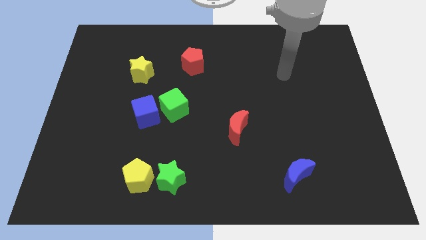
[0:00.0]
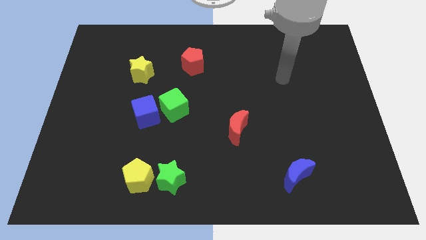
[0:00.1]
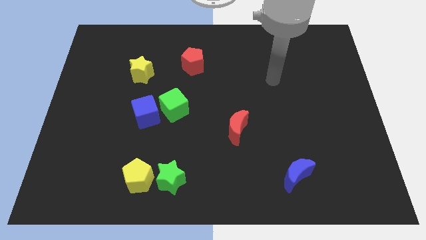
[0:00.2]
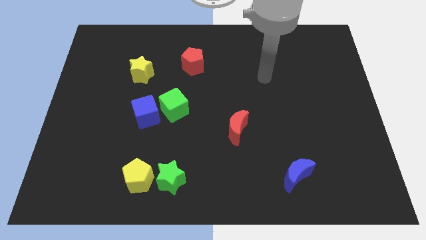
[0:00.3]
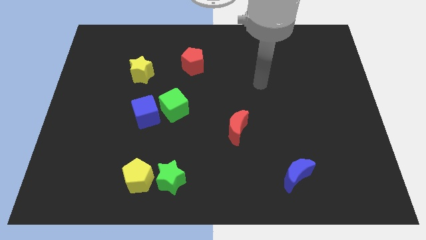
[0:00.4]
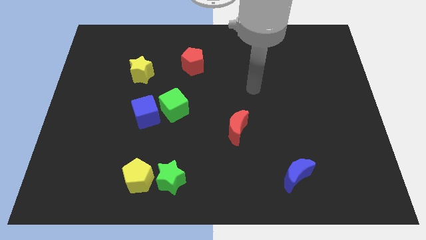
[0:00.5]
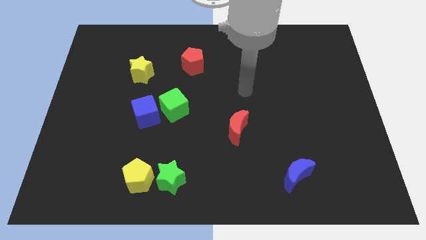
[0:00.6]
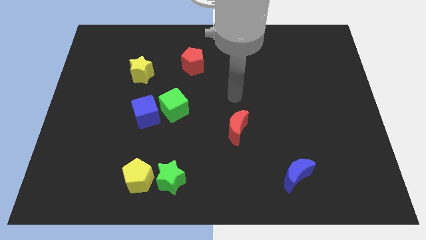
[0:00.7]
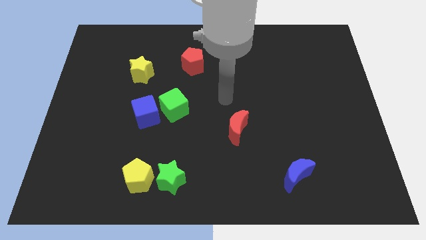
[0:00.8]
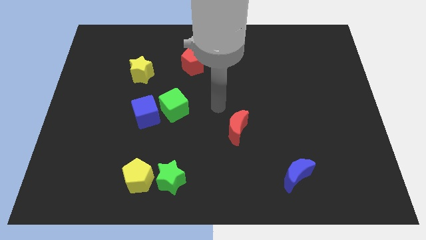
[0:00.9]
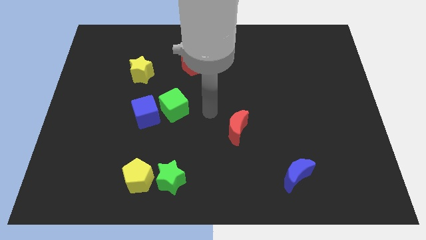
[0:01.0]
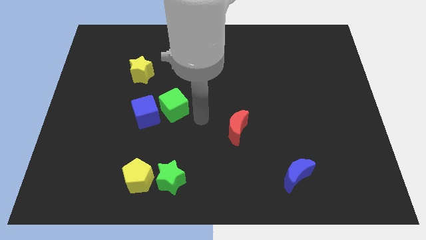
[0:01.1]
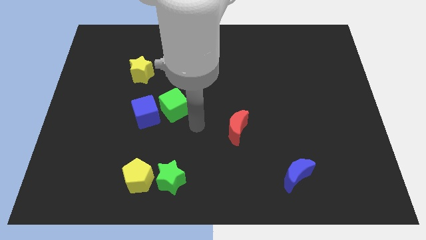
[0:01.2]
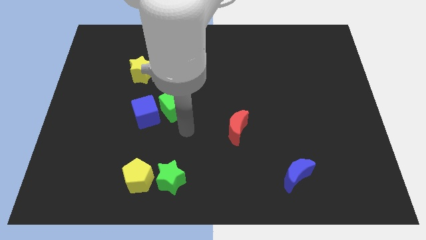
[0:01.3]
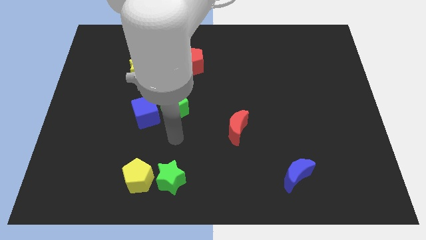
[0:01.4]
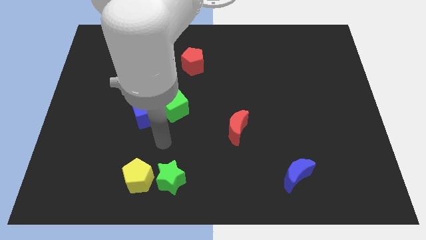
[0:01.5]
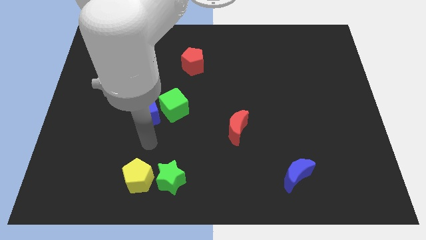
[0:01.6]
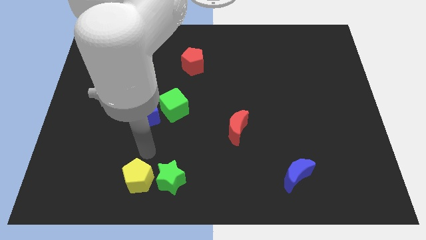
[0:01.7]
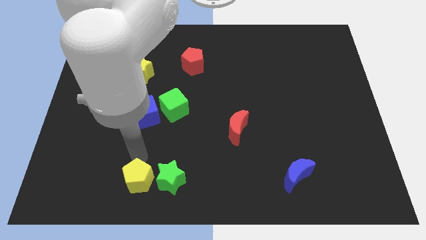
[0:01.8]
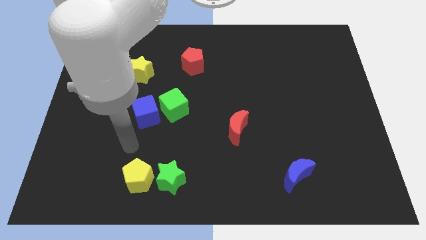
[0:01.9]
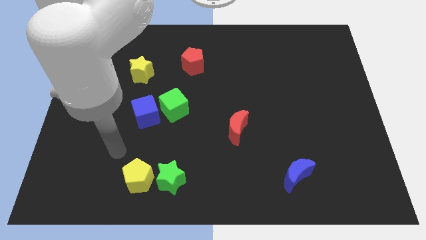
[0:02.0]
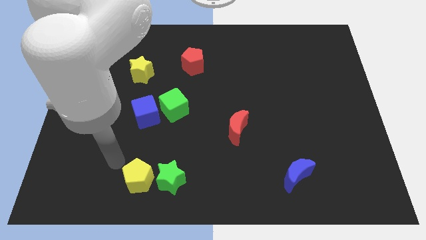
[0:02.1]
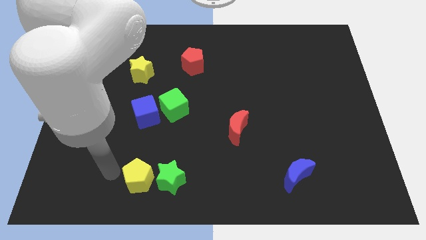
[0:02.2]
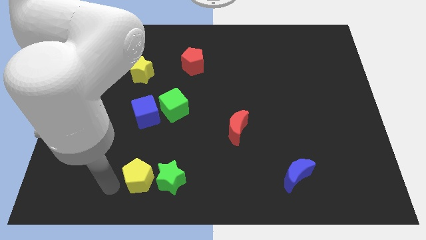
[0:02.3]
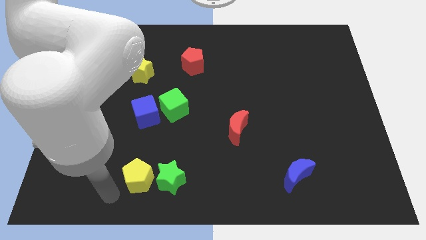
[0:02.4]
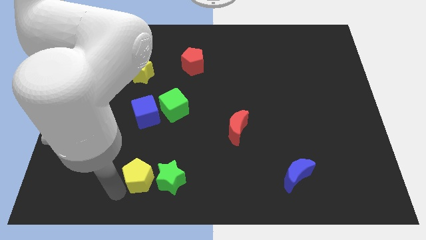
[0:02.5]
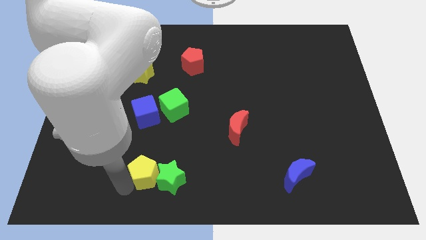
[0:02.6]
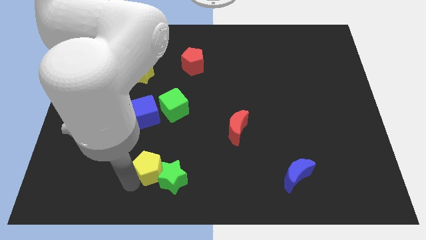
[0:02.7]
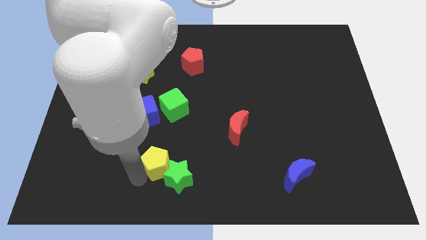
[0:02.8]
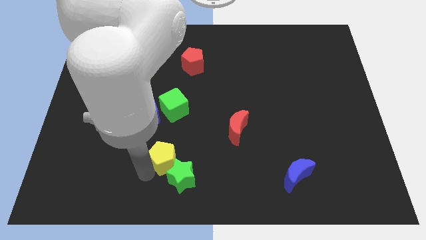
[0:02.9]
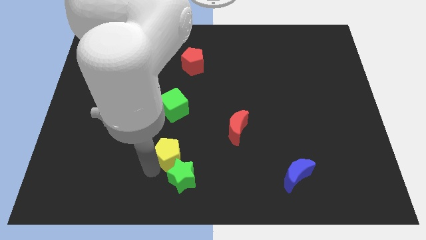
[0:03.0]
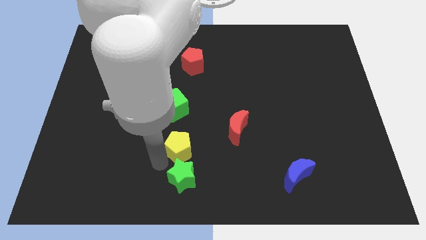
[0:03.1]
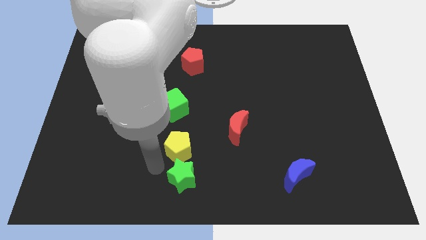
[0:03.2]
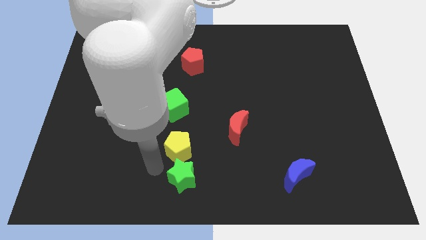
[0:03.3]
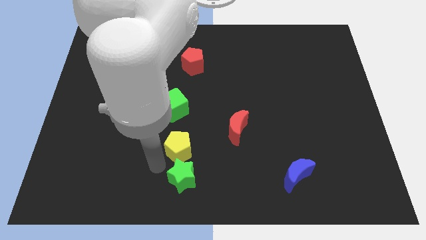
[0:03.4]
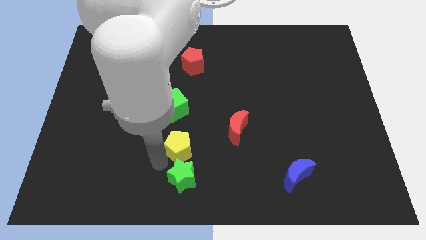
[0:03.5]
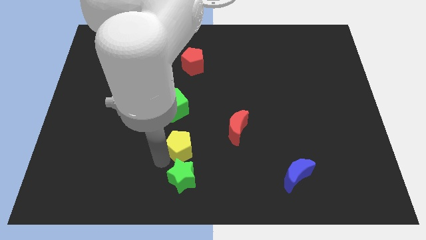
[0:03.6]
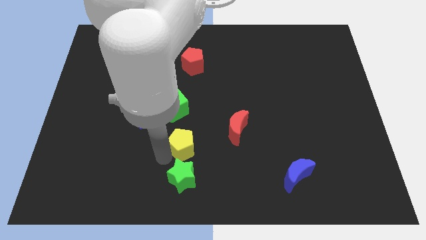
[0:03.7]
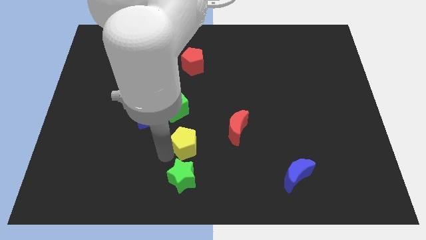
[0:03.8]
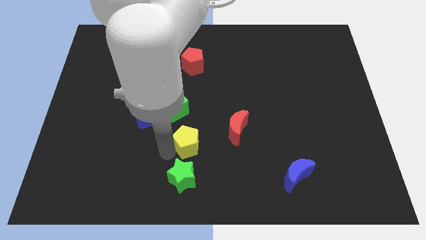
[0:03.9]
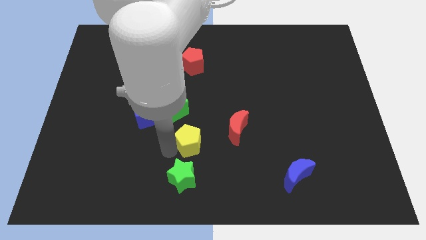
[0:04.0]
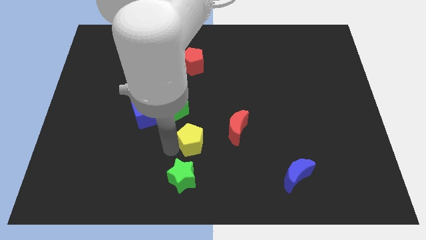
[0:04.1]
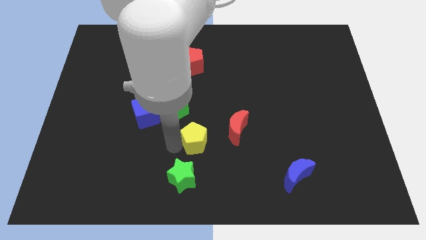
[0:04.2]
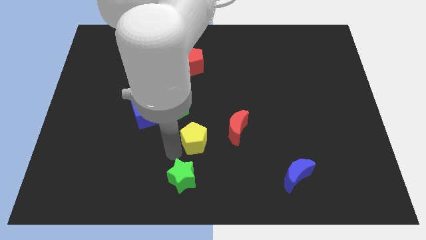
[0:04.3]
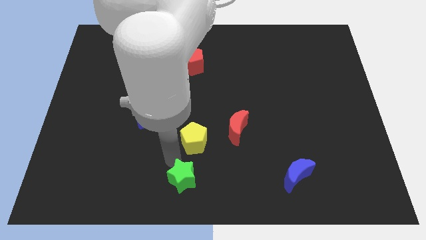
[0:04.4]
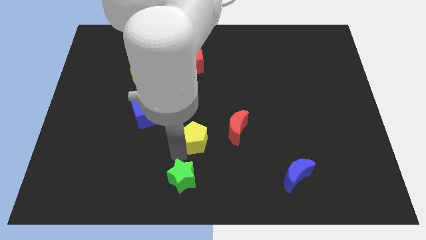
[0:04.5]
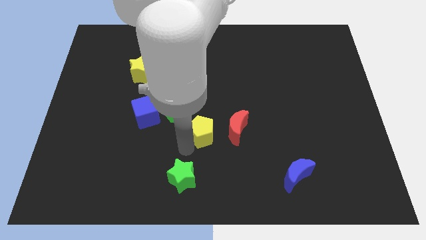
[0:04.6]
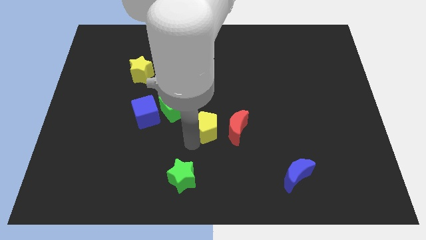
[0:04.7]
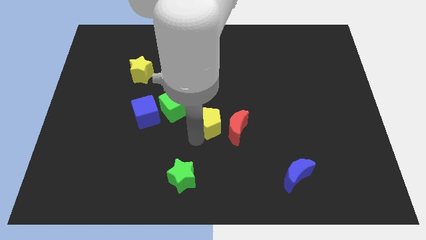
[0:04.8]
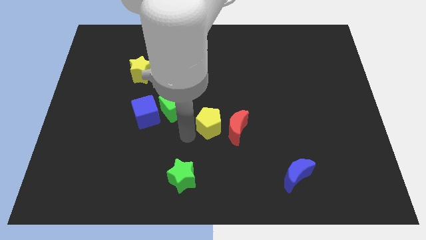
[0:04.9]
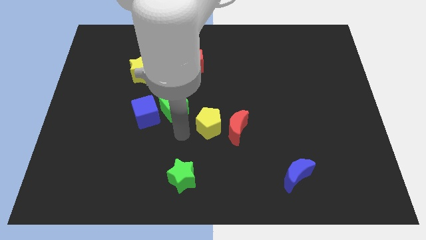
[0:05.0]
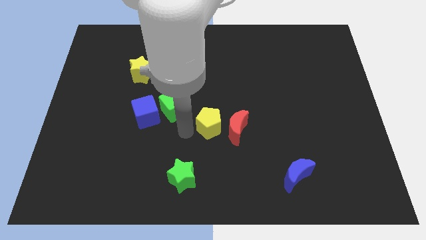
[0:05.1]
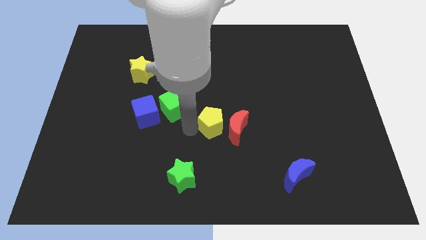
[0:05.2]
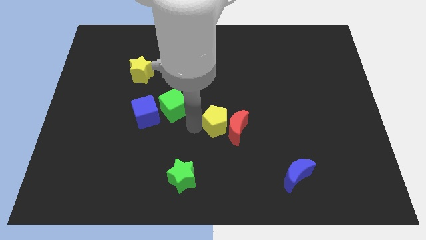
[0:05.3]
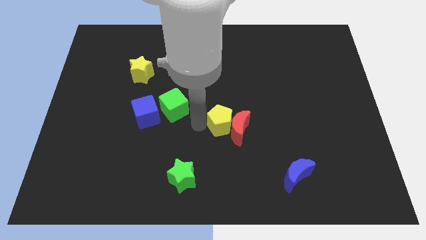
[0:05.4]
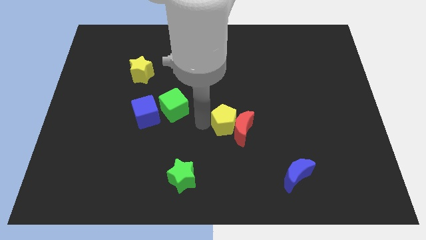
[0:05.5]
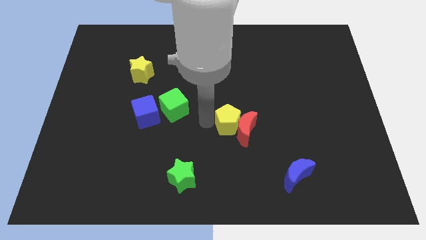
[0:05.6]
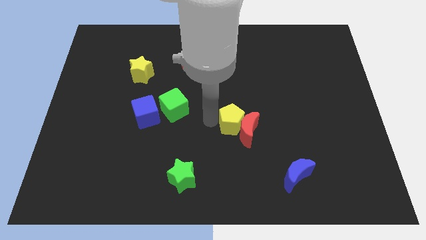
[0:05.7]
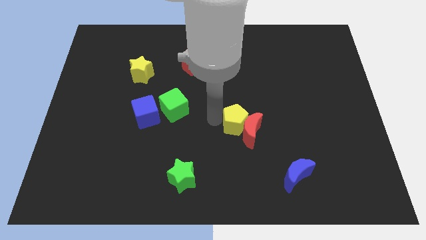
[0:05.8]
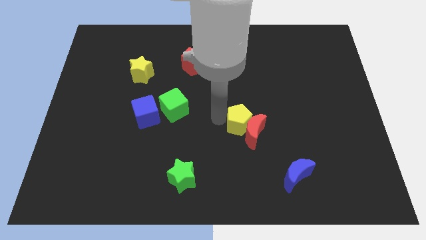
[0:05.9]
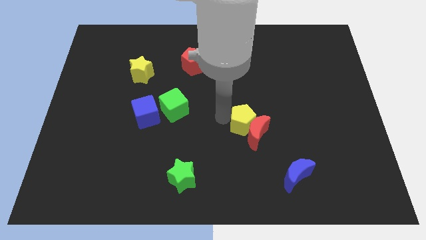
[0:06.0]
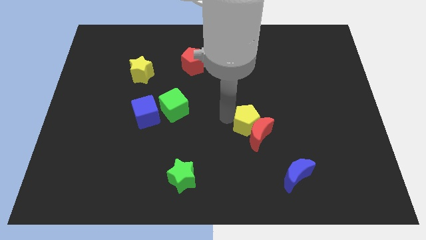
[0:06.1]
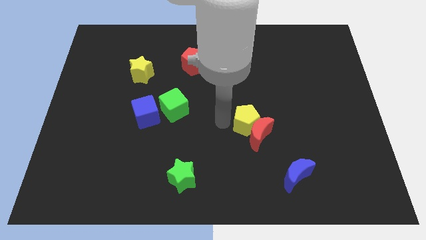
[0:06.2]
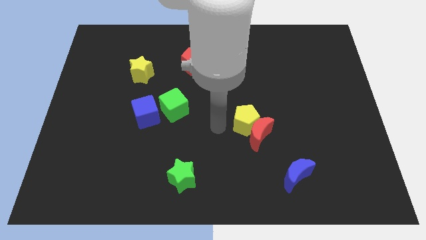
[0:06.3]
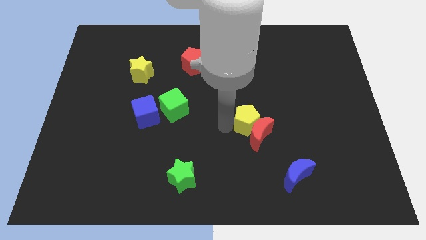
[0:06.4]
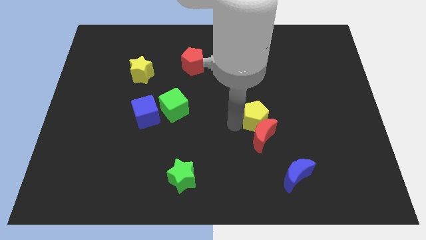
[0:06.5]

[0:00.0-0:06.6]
push the yellow pentagon diagonally up and to the right of the red moon

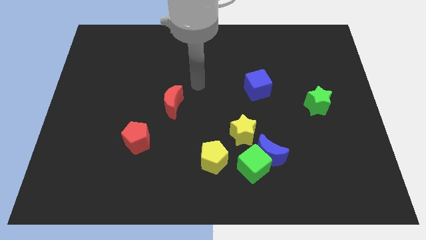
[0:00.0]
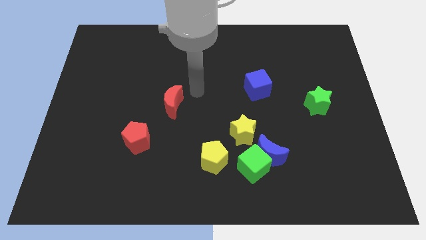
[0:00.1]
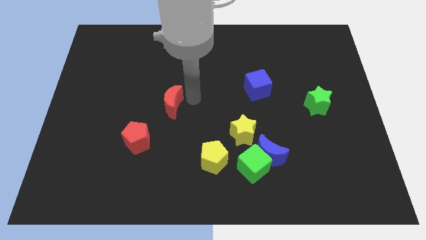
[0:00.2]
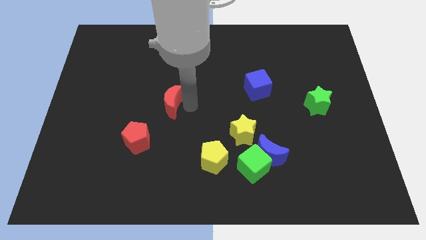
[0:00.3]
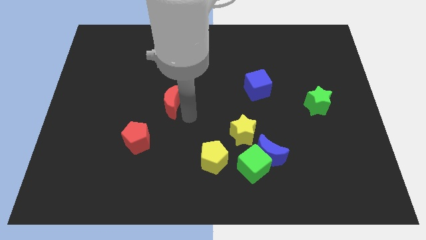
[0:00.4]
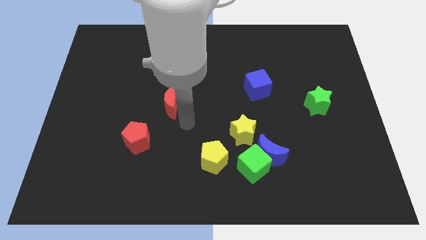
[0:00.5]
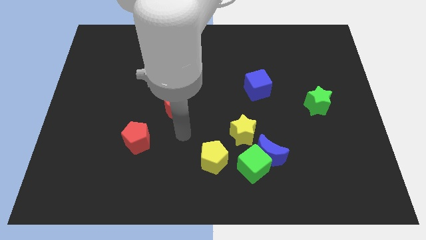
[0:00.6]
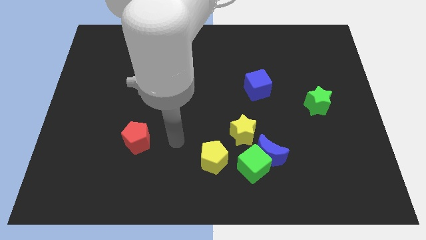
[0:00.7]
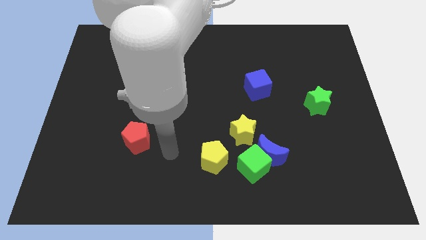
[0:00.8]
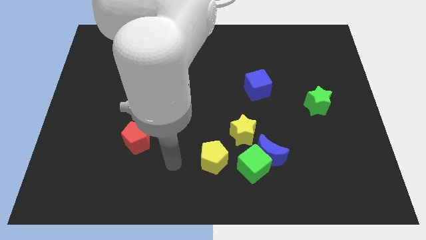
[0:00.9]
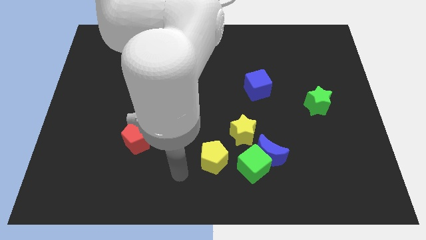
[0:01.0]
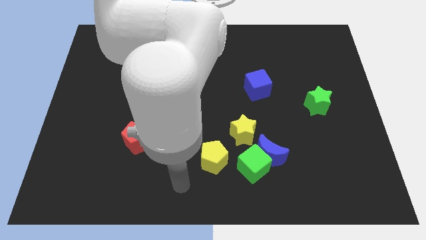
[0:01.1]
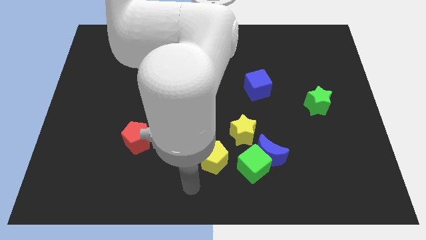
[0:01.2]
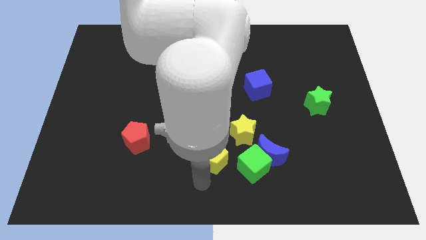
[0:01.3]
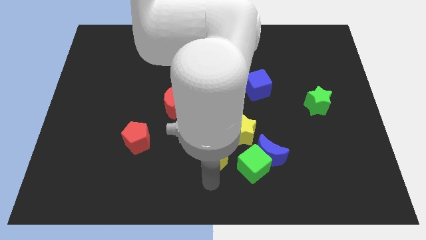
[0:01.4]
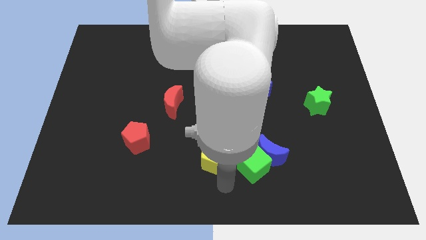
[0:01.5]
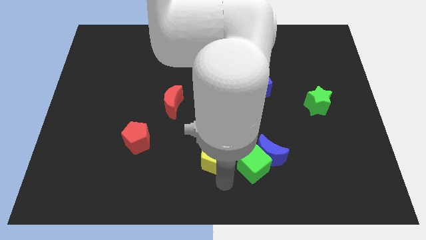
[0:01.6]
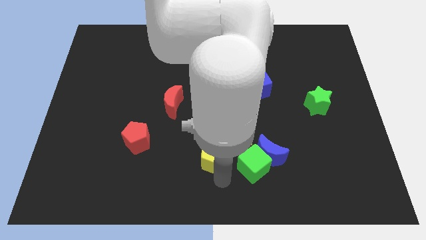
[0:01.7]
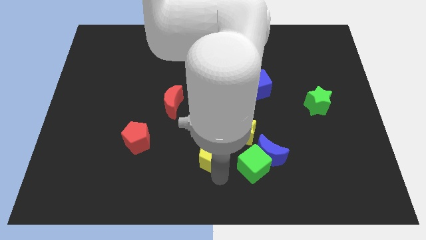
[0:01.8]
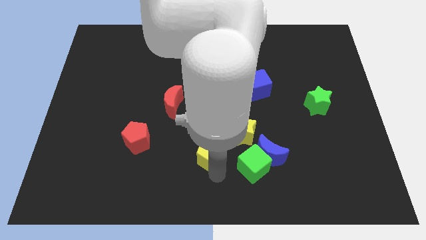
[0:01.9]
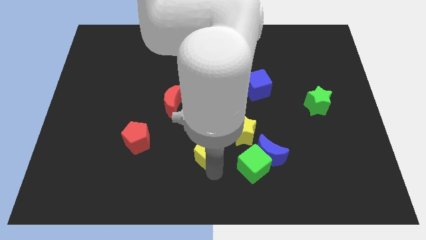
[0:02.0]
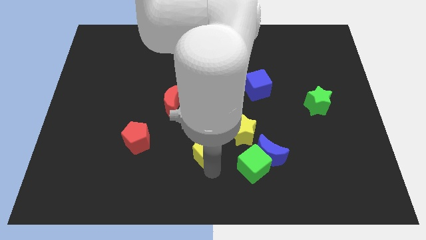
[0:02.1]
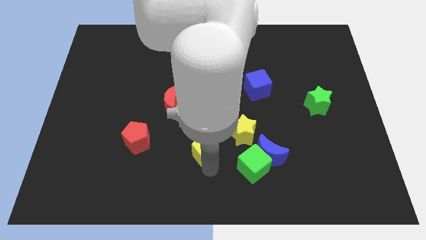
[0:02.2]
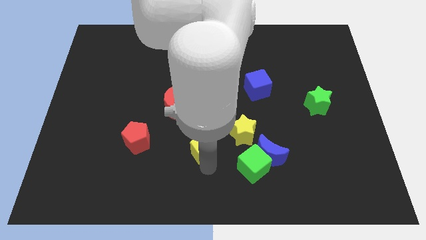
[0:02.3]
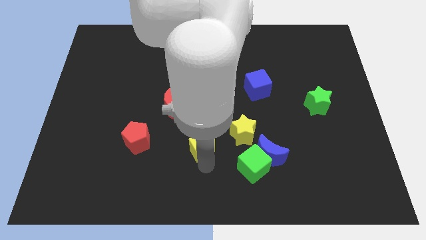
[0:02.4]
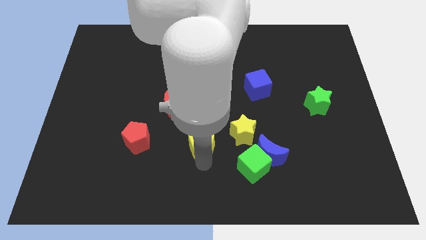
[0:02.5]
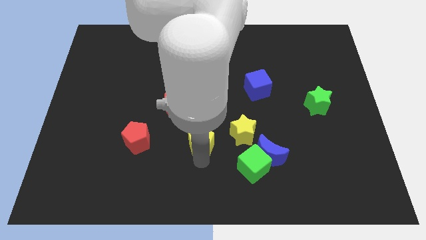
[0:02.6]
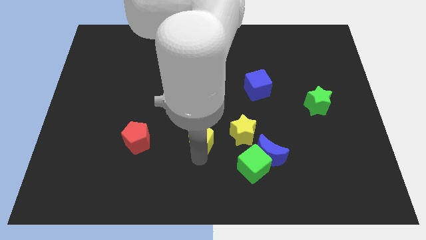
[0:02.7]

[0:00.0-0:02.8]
slide the yellow pentagon to the bottom right side of the red moon
